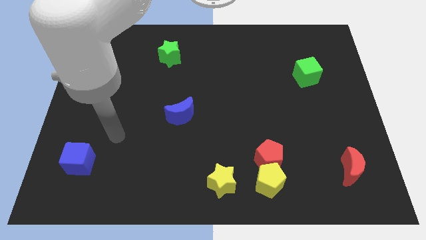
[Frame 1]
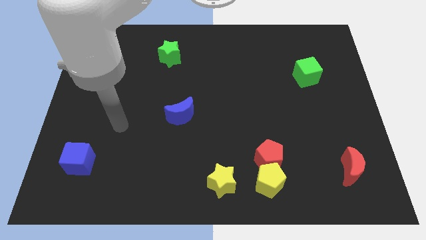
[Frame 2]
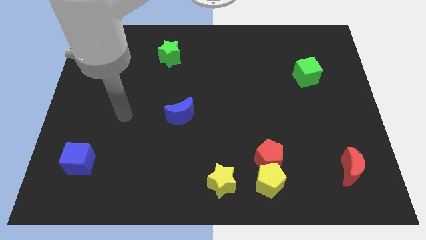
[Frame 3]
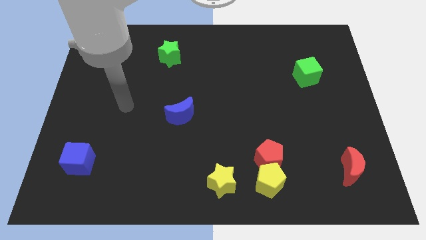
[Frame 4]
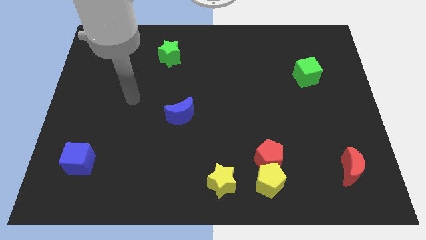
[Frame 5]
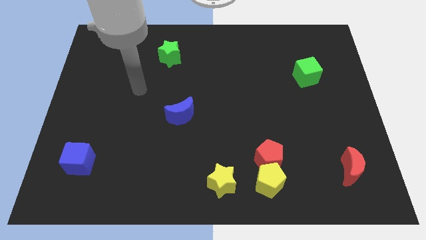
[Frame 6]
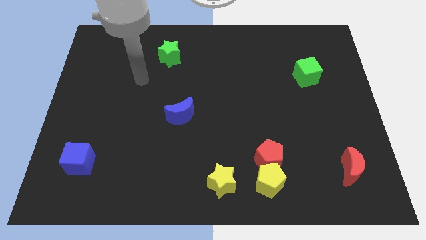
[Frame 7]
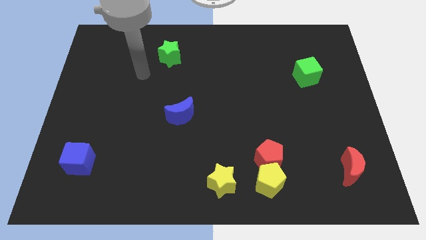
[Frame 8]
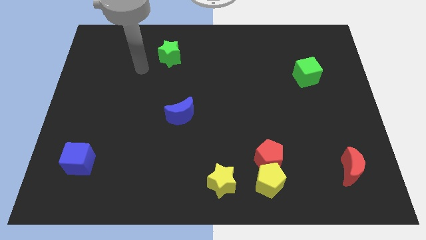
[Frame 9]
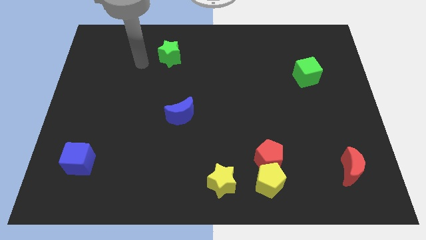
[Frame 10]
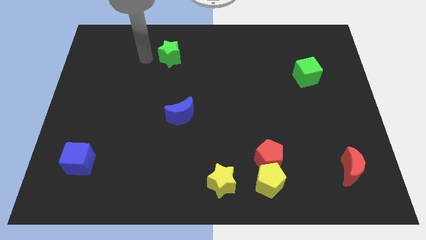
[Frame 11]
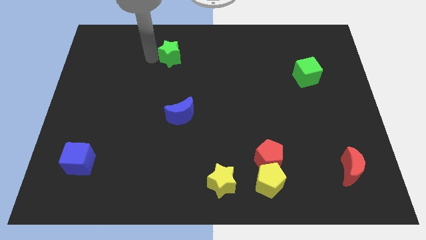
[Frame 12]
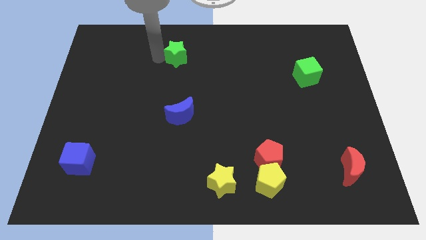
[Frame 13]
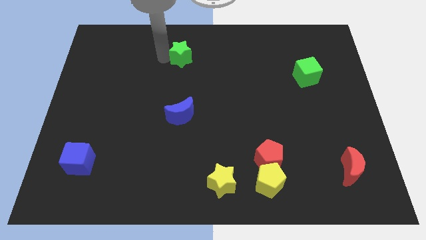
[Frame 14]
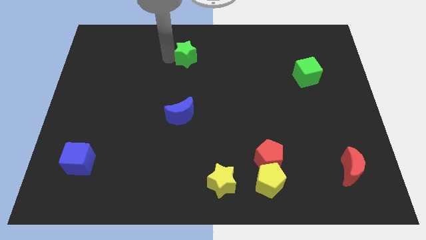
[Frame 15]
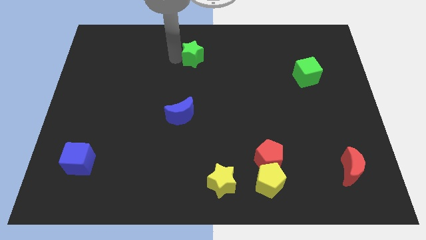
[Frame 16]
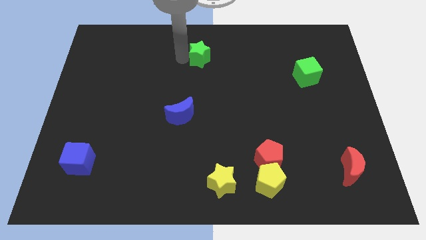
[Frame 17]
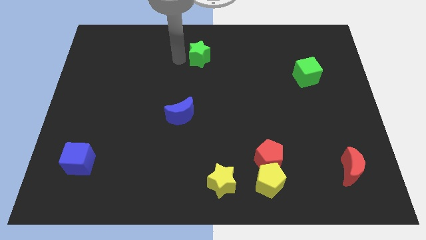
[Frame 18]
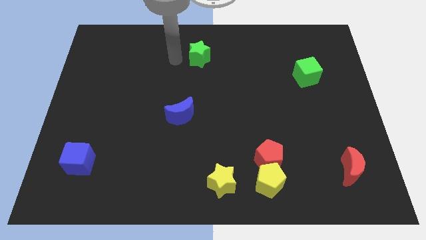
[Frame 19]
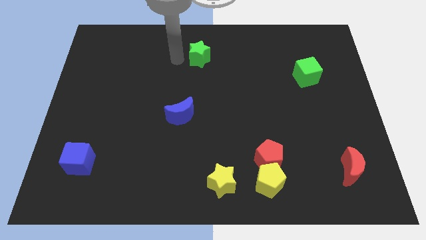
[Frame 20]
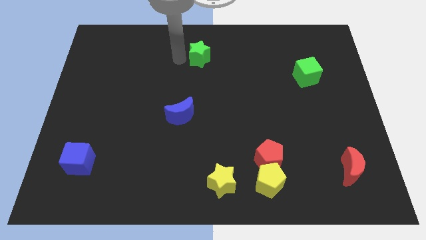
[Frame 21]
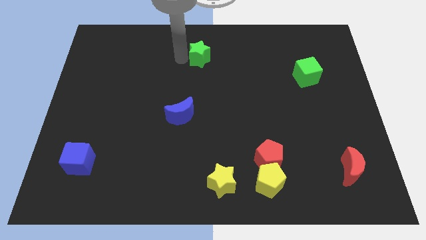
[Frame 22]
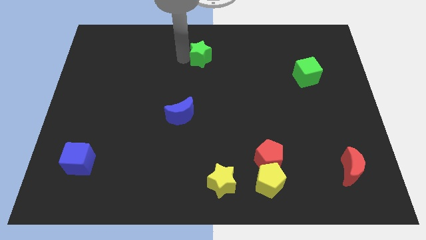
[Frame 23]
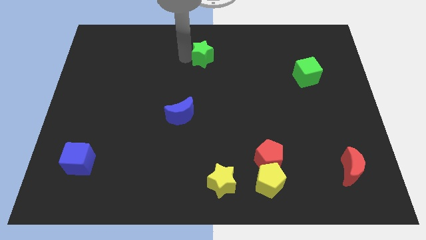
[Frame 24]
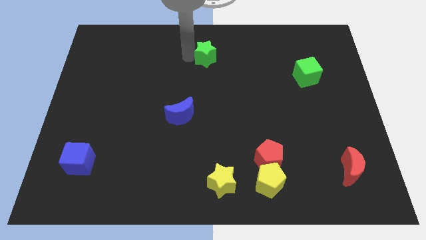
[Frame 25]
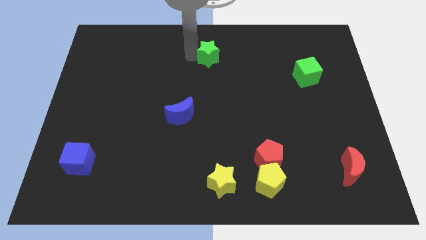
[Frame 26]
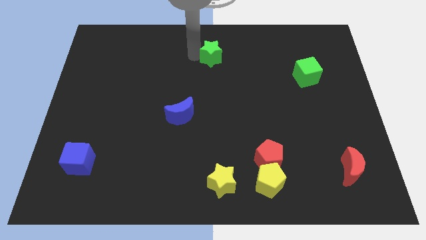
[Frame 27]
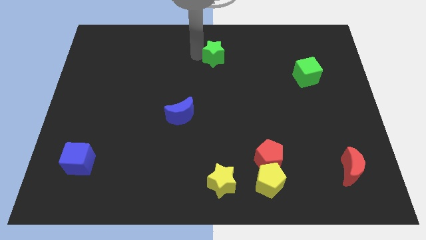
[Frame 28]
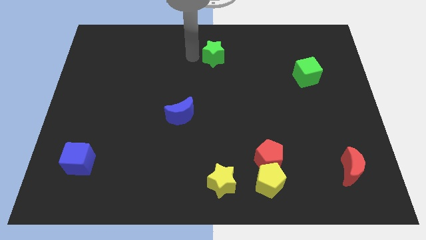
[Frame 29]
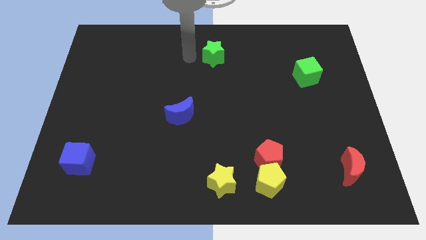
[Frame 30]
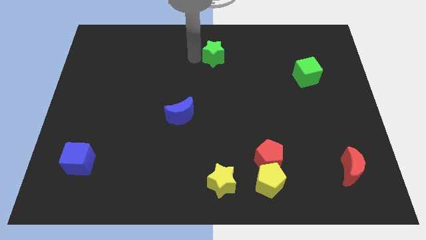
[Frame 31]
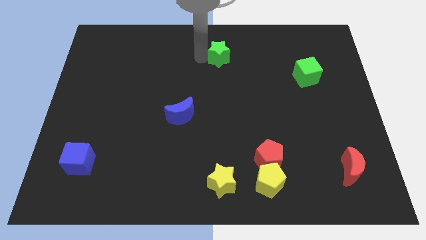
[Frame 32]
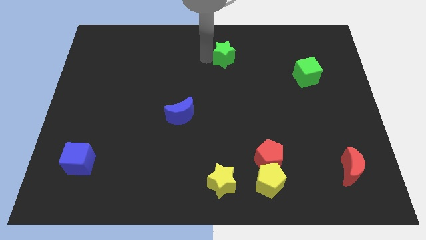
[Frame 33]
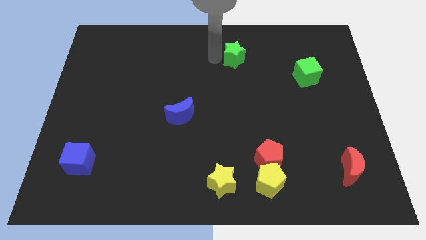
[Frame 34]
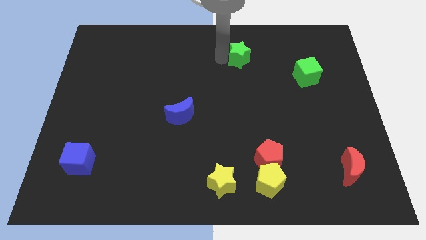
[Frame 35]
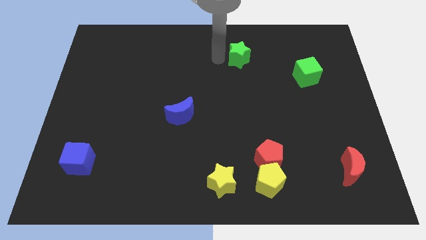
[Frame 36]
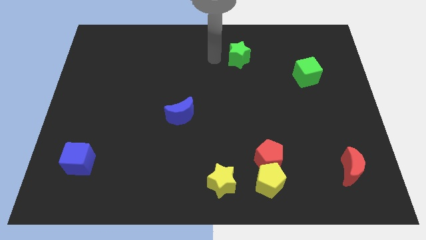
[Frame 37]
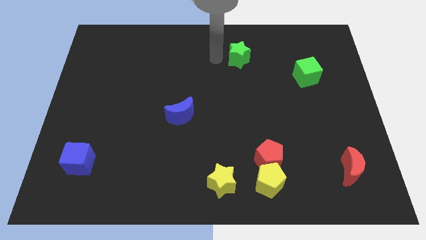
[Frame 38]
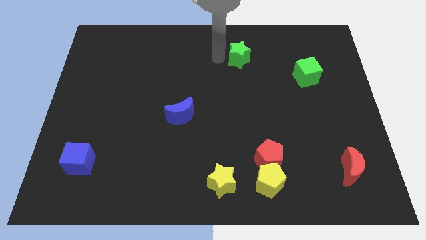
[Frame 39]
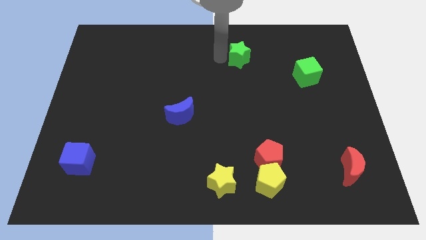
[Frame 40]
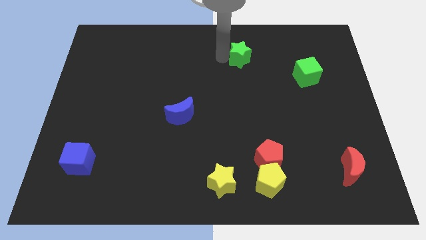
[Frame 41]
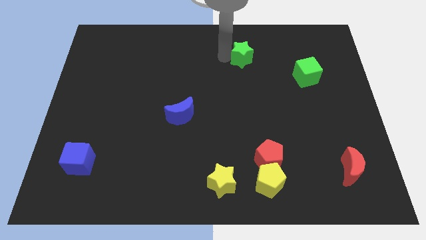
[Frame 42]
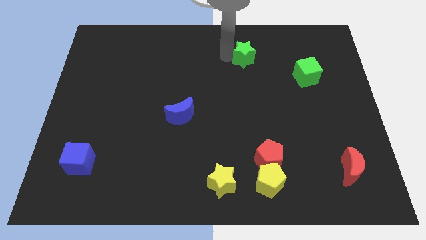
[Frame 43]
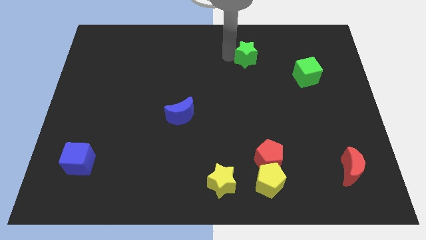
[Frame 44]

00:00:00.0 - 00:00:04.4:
push the green star right

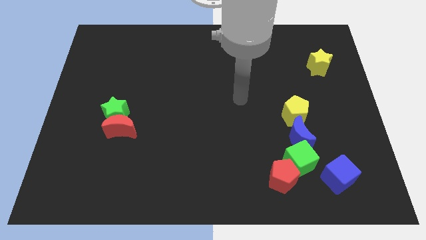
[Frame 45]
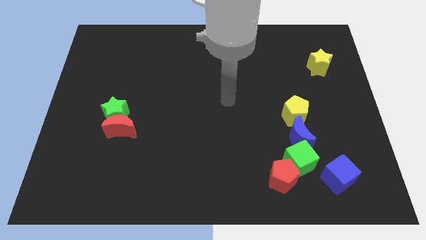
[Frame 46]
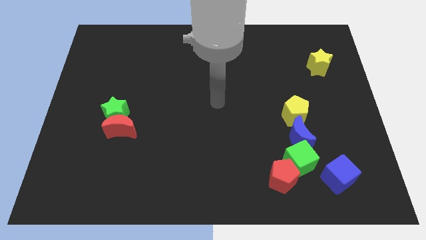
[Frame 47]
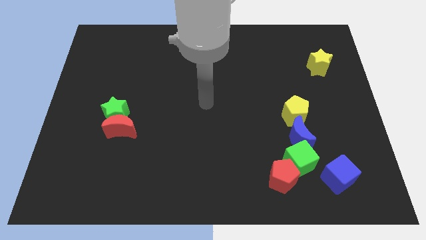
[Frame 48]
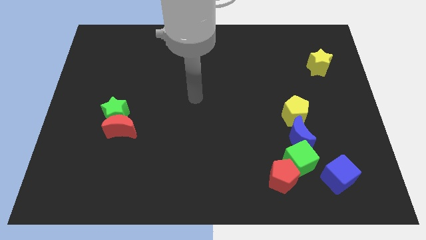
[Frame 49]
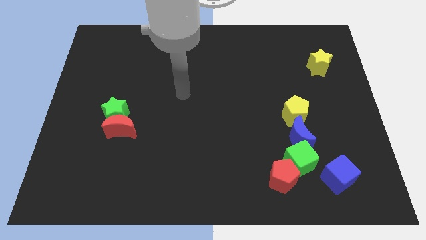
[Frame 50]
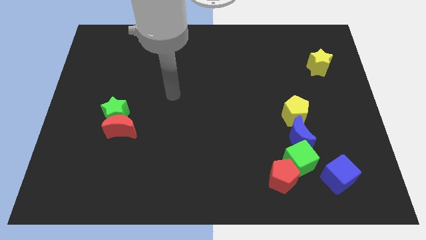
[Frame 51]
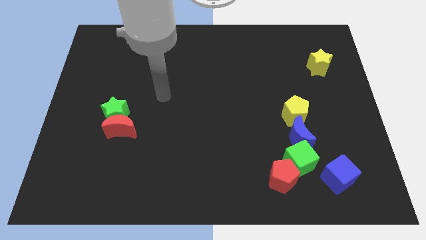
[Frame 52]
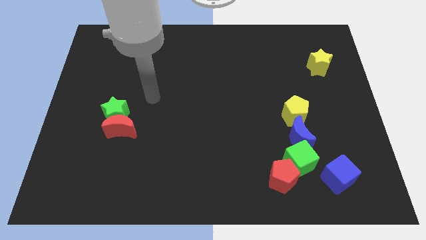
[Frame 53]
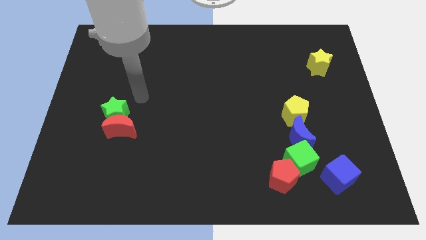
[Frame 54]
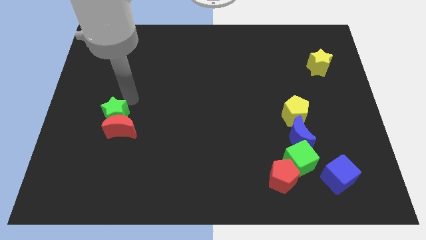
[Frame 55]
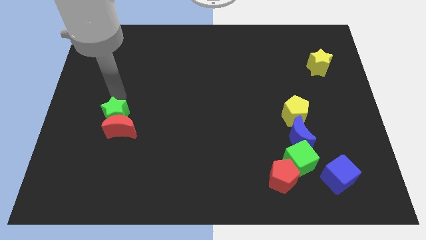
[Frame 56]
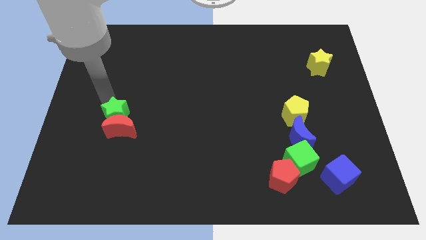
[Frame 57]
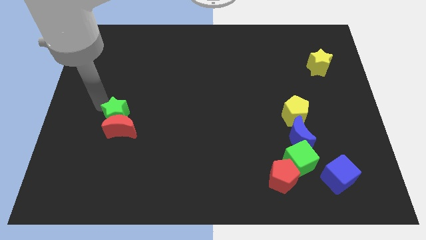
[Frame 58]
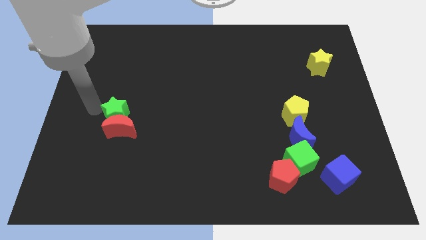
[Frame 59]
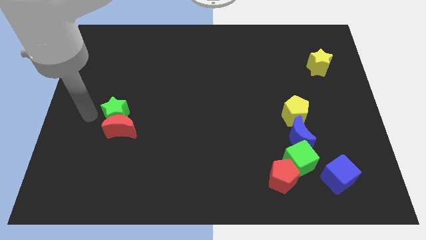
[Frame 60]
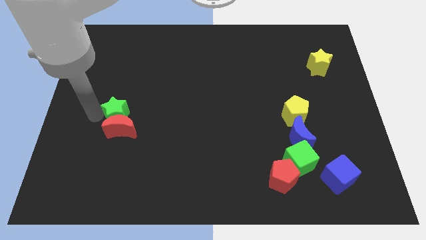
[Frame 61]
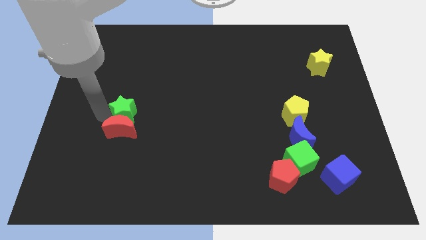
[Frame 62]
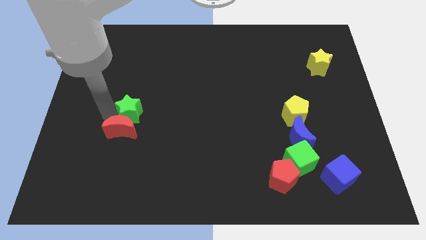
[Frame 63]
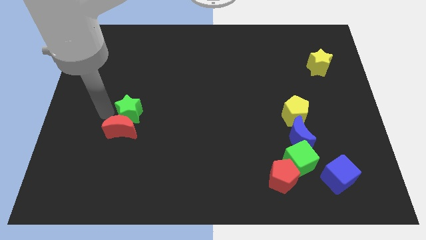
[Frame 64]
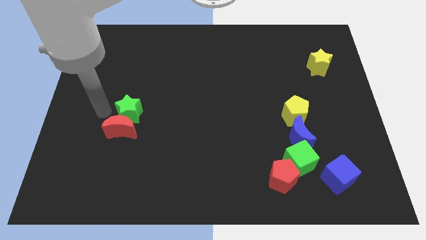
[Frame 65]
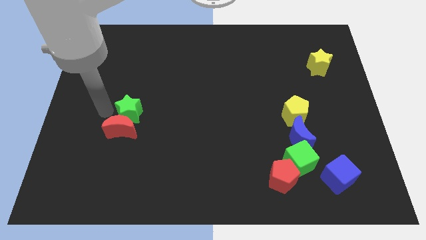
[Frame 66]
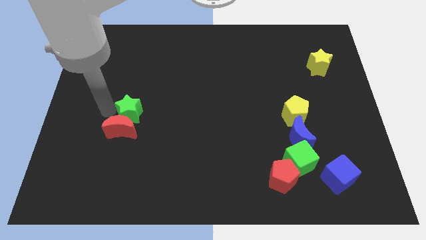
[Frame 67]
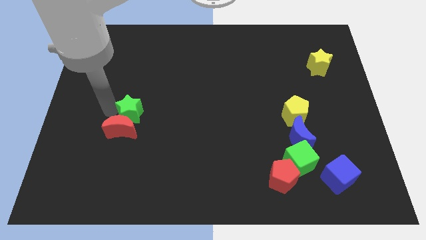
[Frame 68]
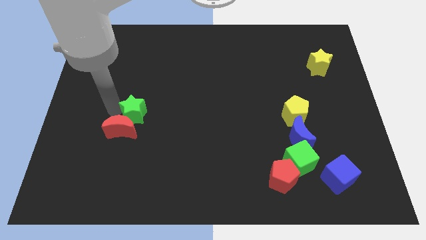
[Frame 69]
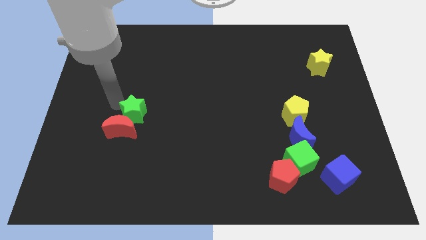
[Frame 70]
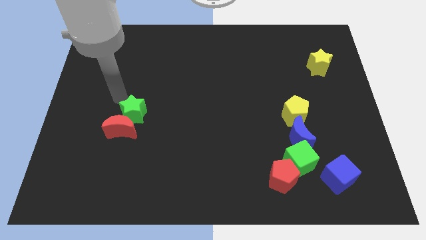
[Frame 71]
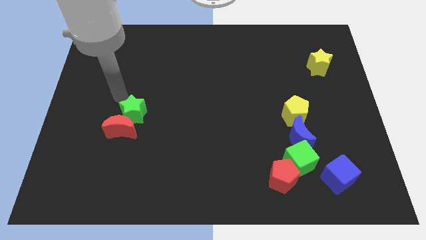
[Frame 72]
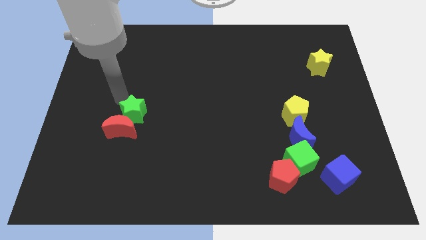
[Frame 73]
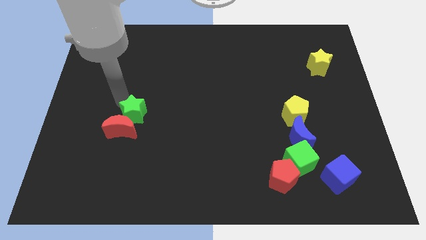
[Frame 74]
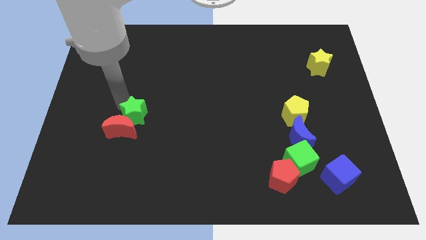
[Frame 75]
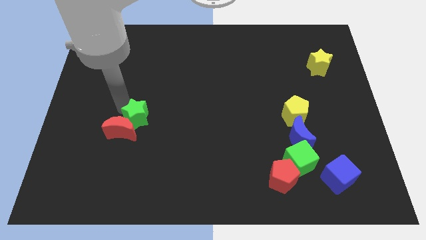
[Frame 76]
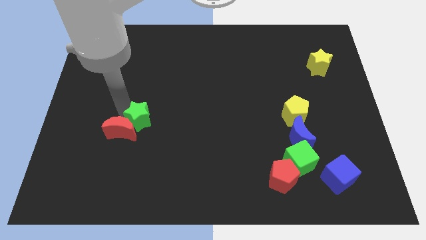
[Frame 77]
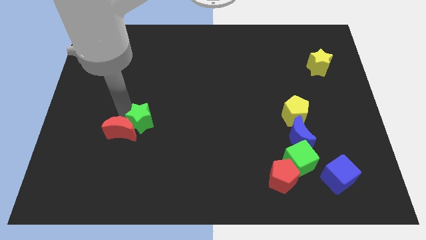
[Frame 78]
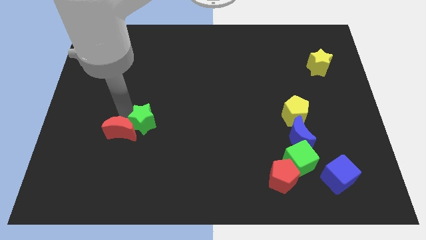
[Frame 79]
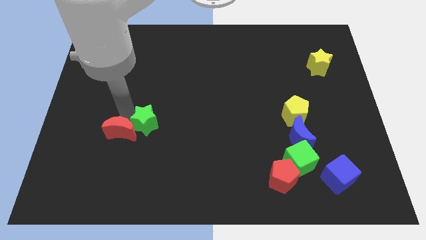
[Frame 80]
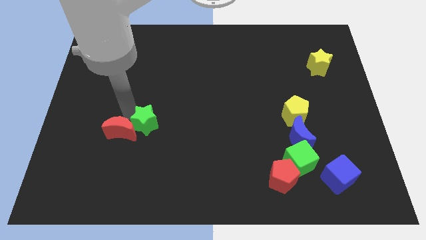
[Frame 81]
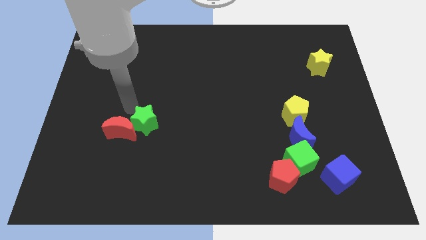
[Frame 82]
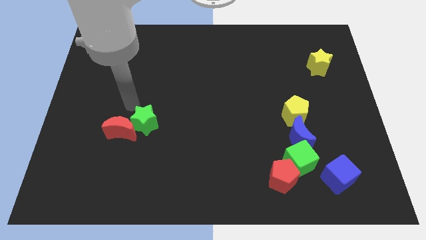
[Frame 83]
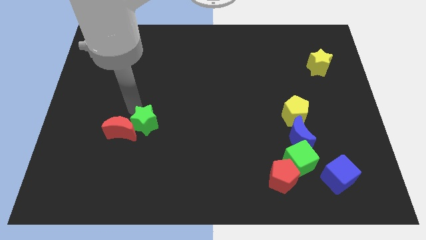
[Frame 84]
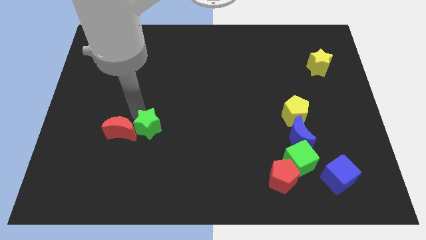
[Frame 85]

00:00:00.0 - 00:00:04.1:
slide the green star down and right diagonally a little
